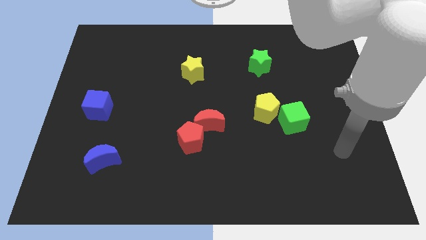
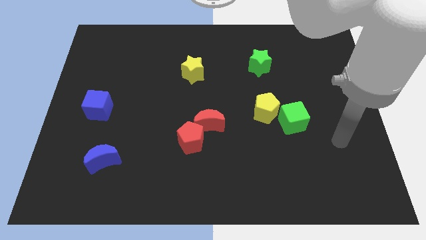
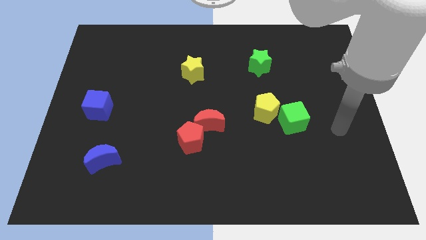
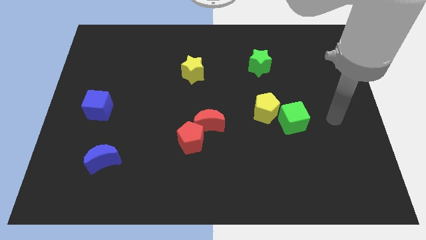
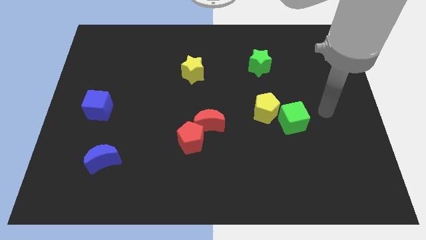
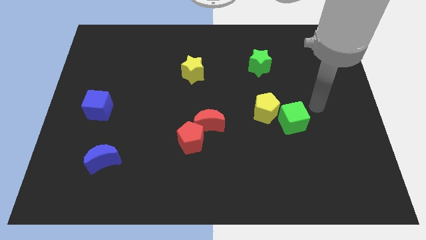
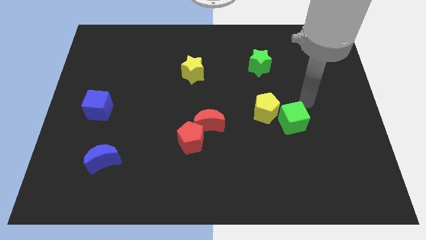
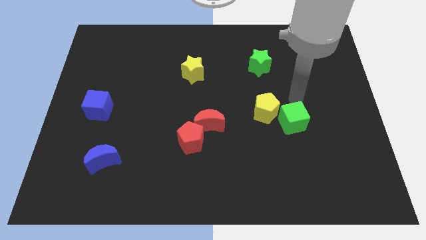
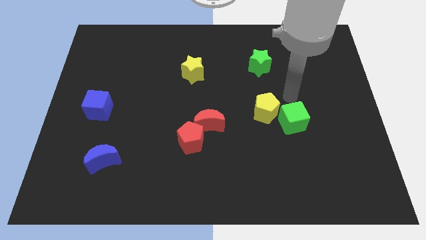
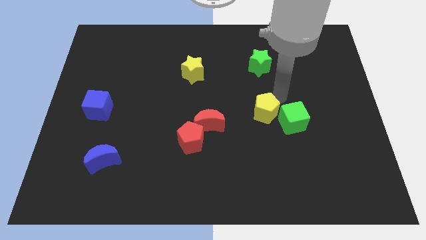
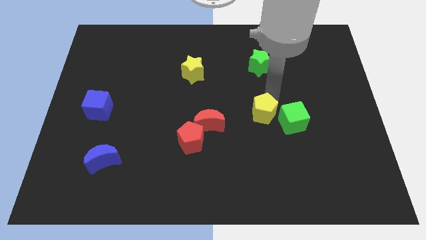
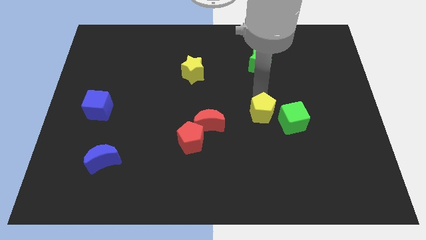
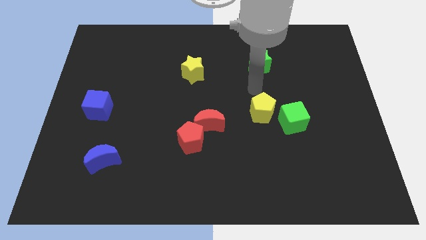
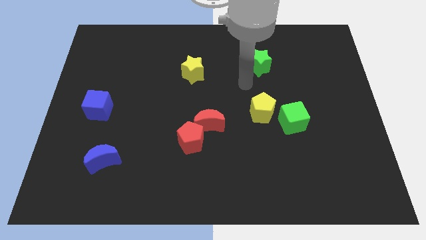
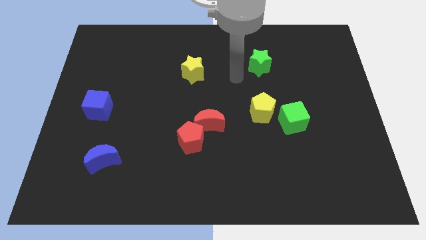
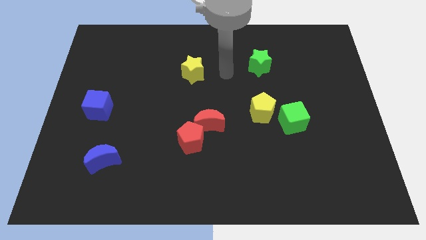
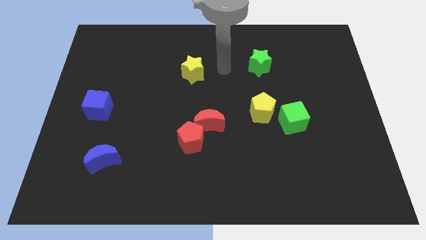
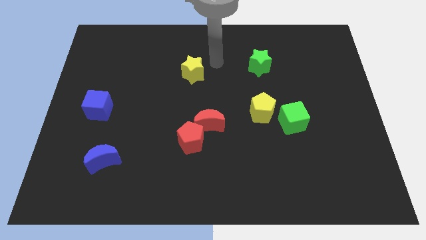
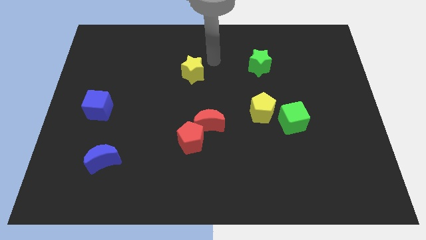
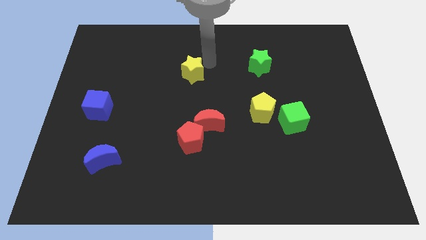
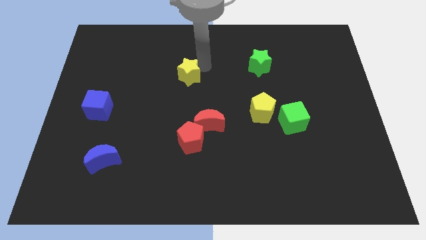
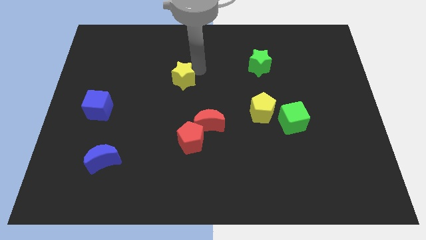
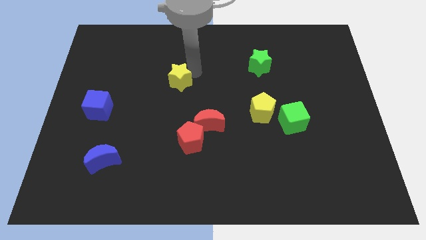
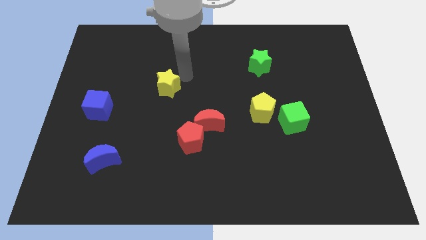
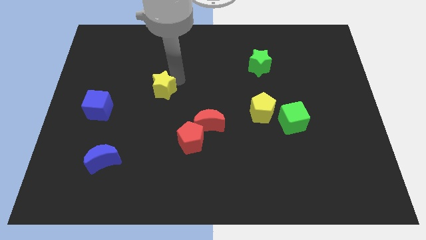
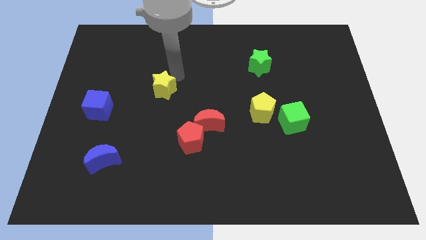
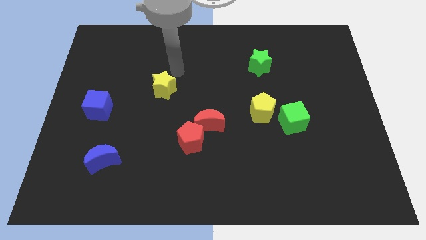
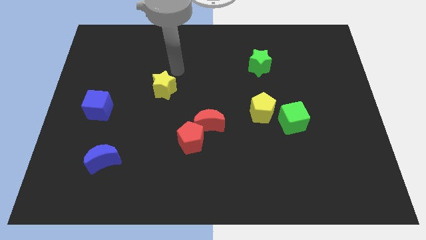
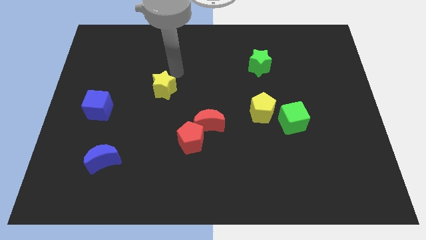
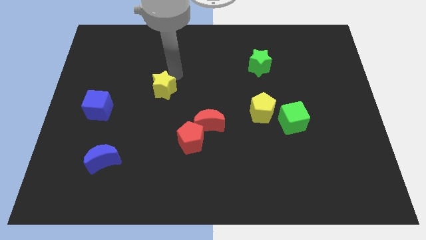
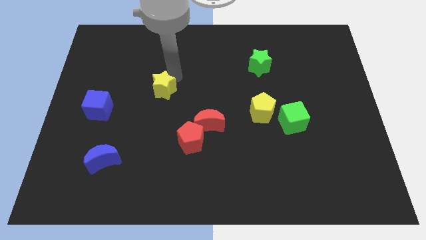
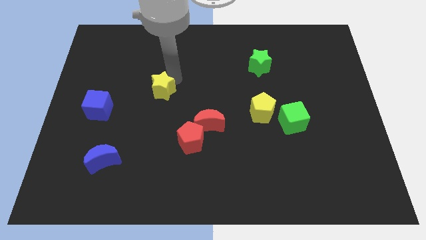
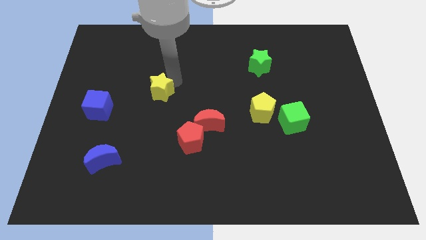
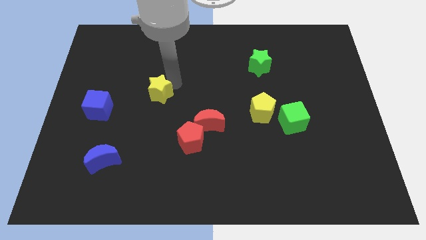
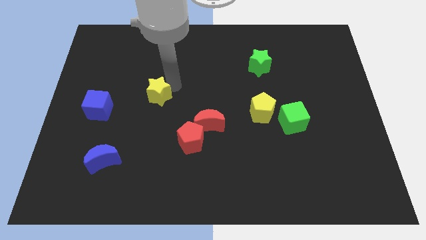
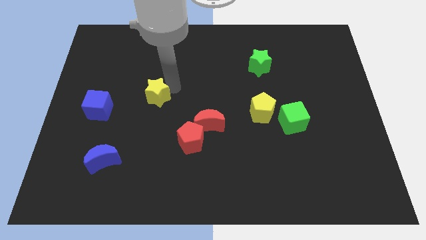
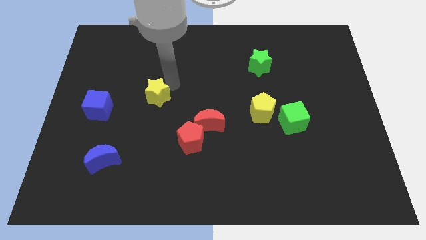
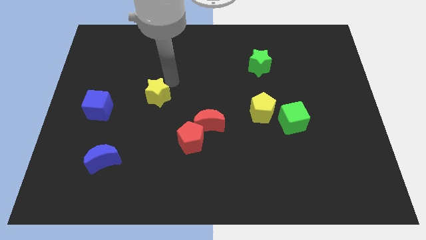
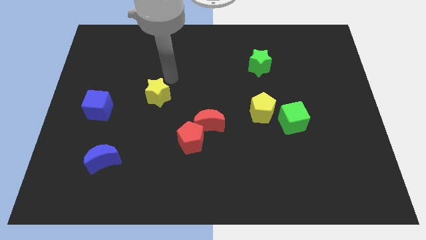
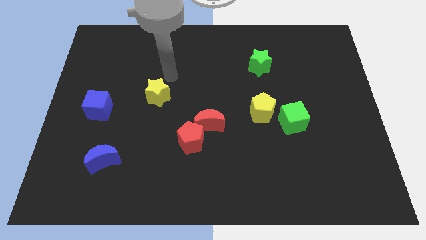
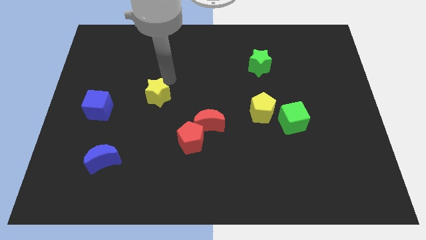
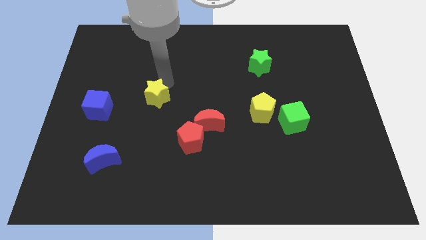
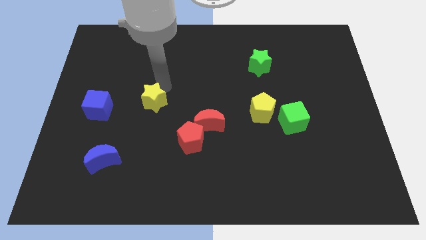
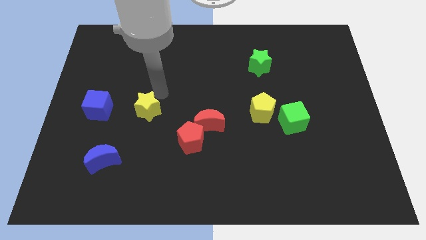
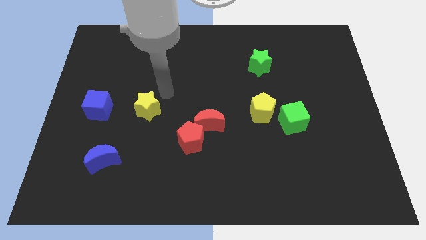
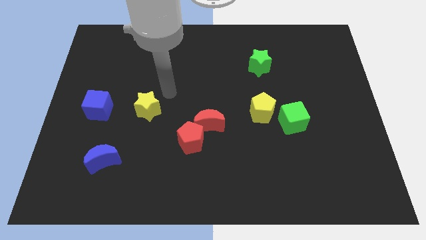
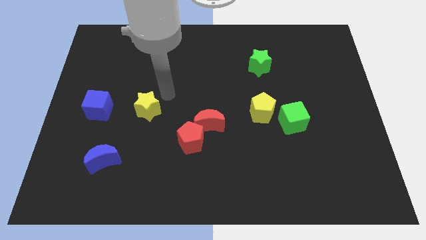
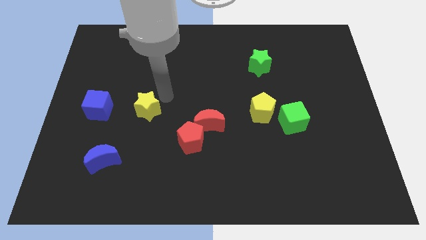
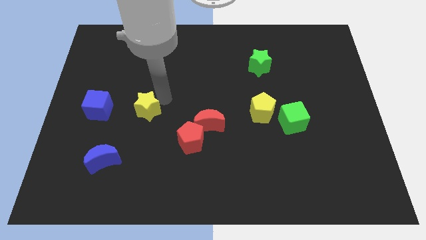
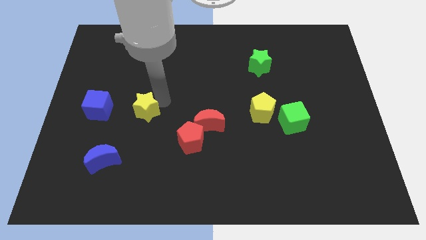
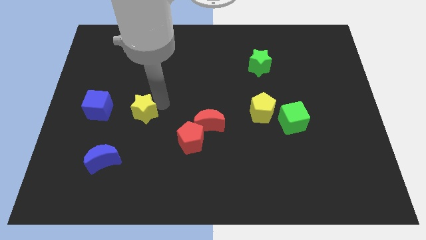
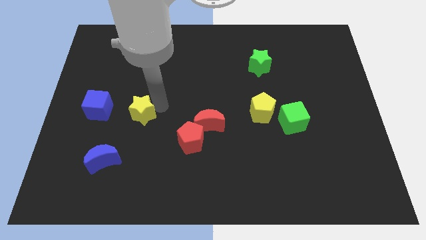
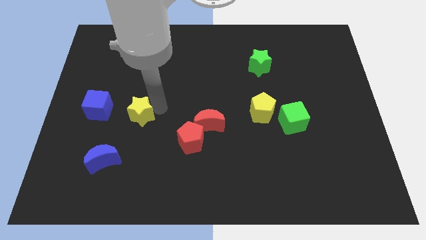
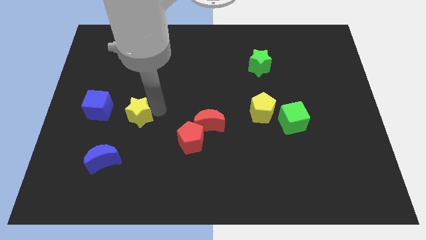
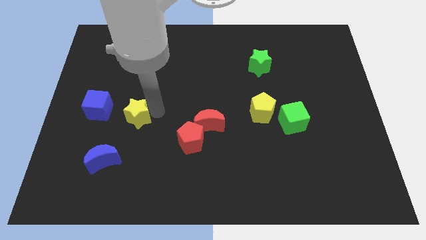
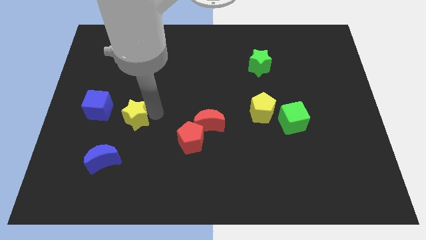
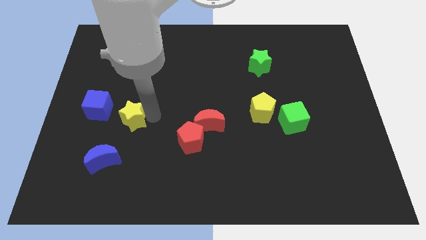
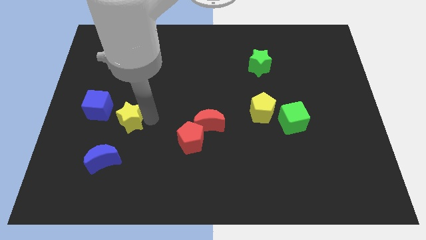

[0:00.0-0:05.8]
push the yellow star down and then to the left

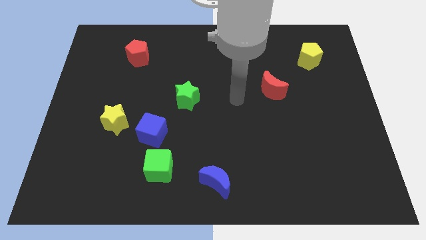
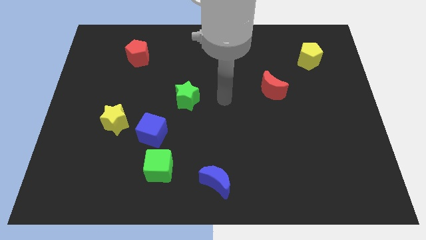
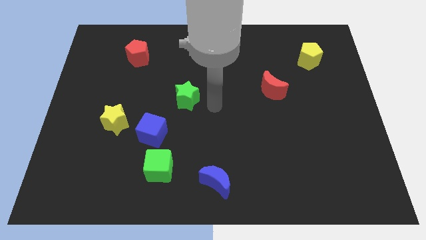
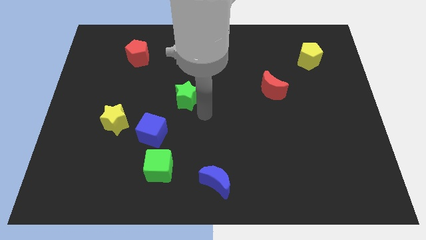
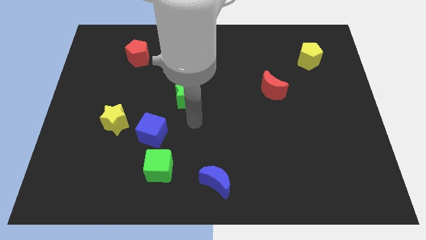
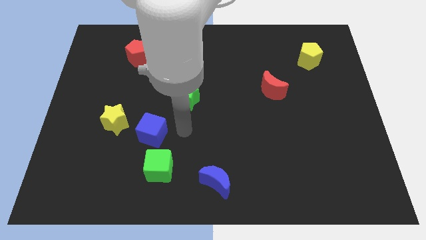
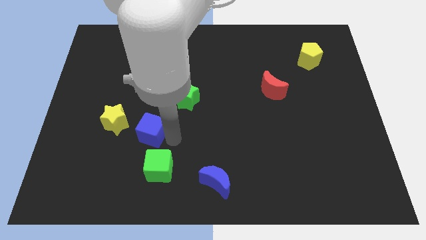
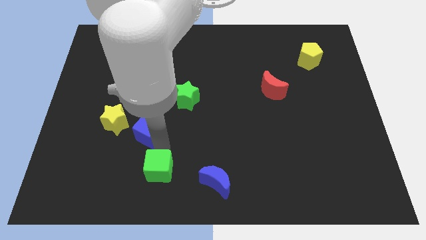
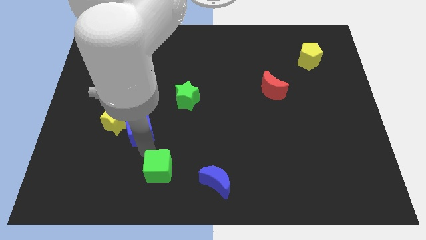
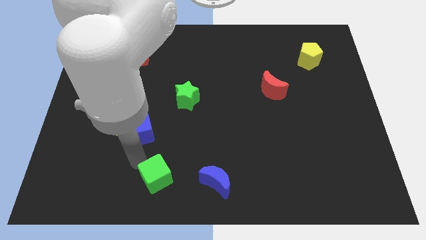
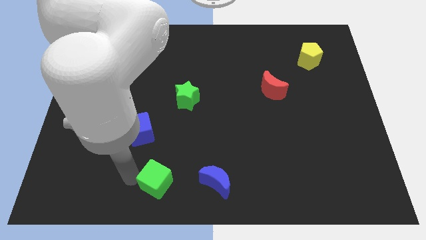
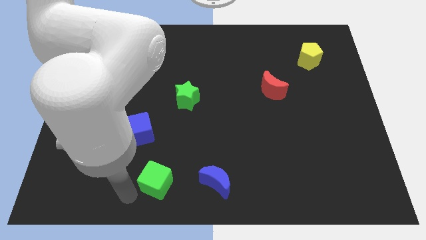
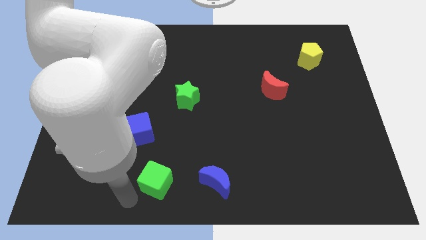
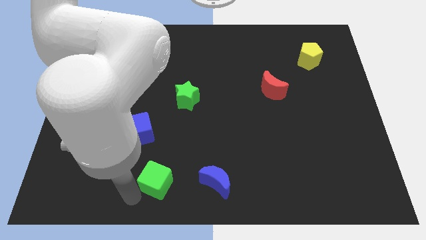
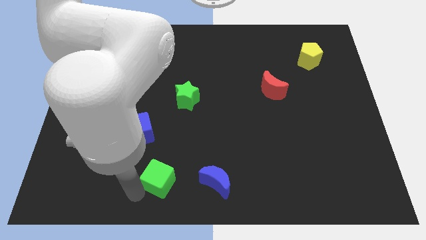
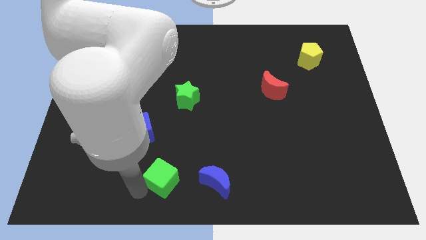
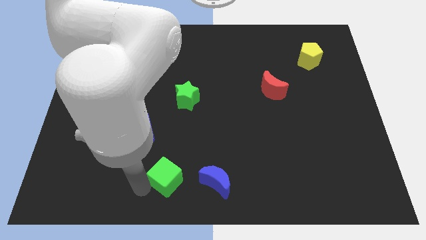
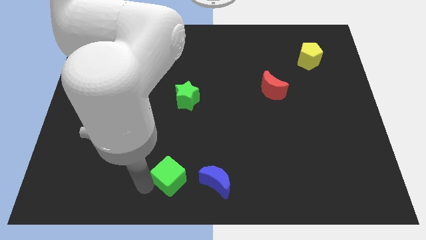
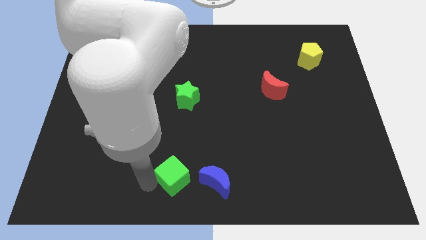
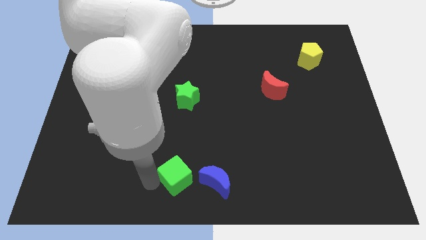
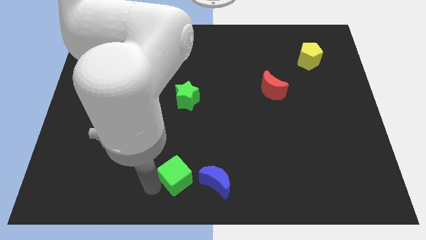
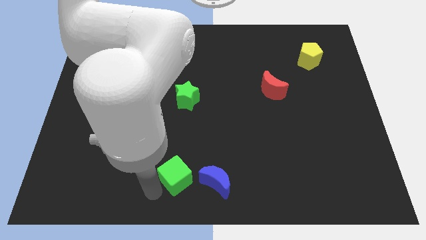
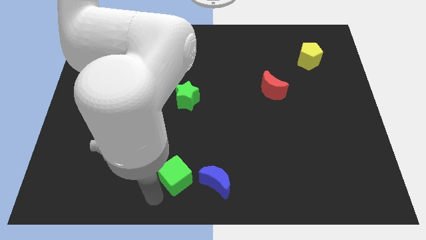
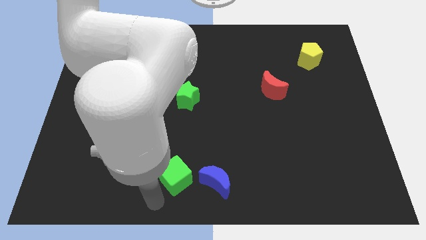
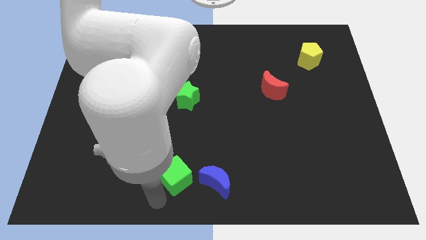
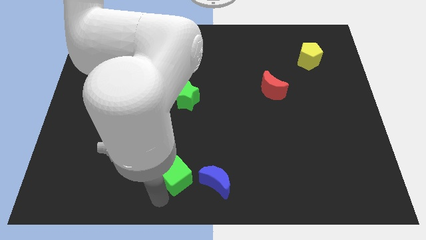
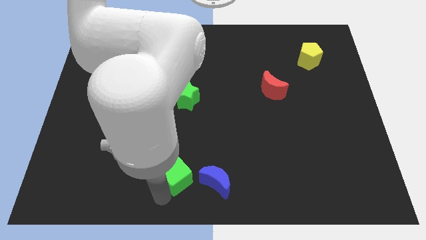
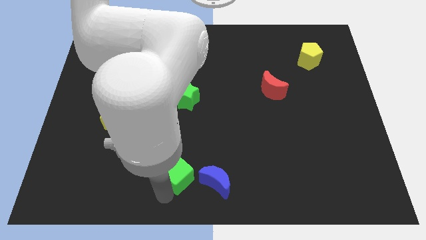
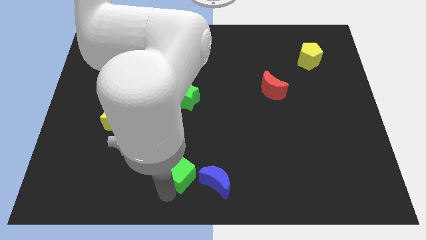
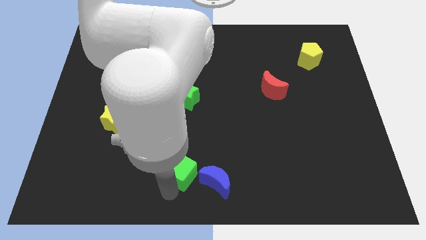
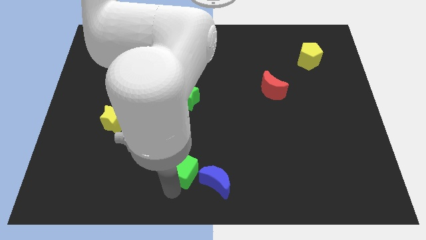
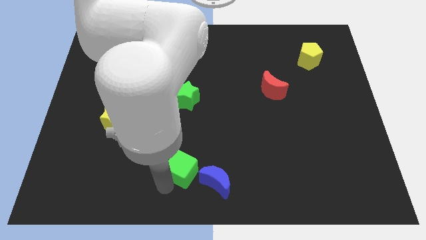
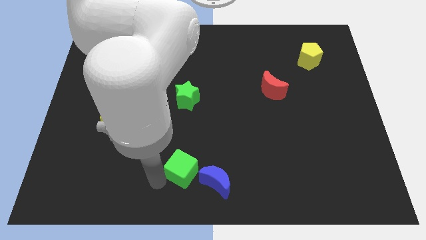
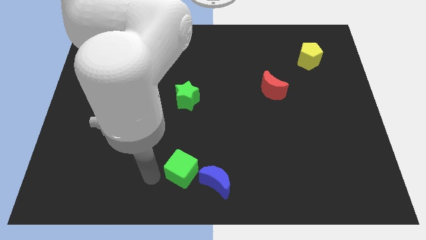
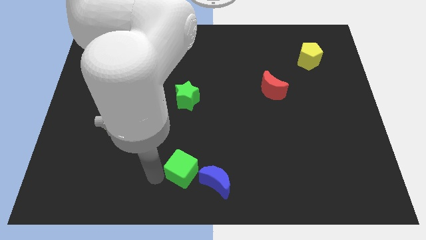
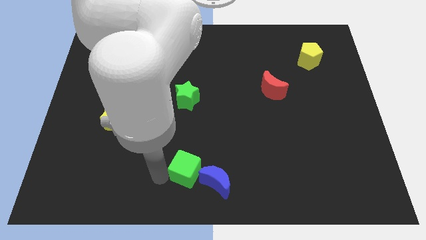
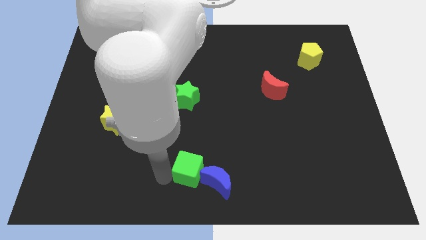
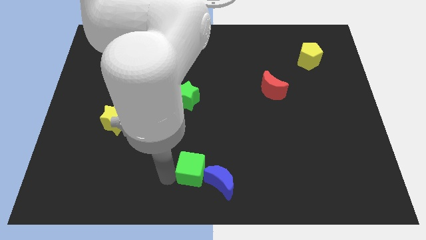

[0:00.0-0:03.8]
slide the green cube a little to the right
